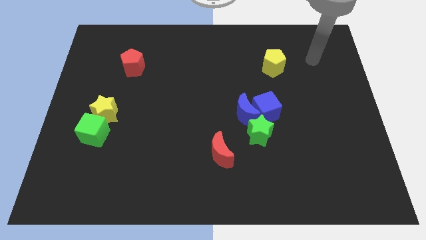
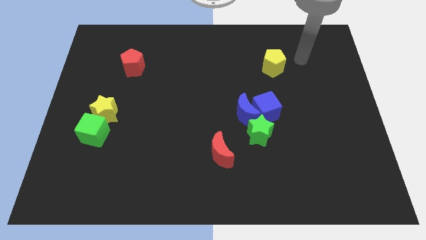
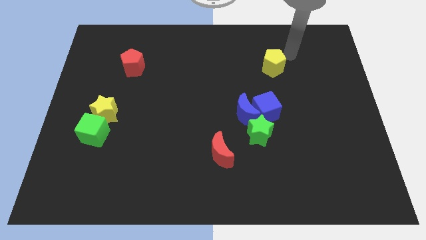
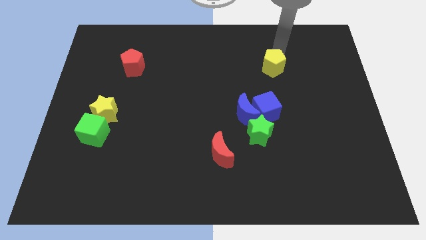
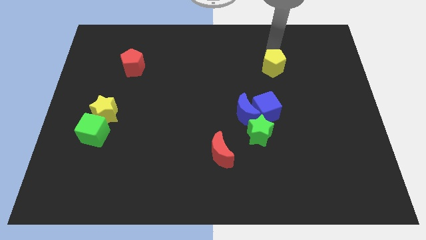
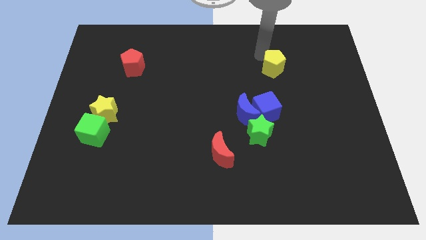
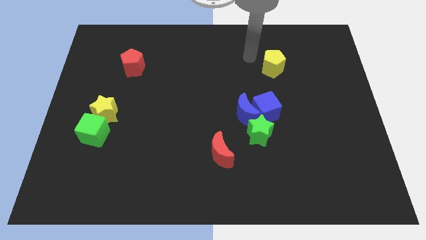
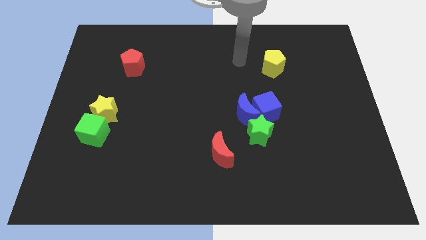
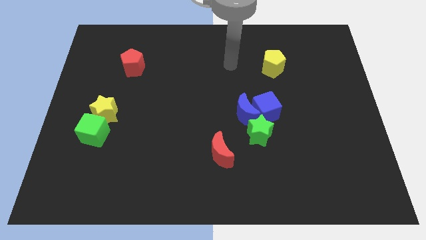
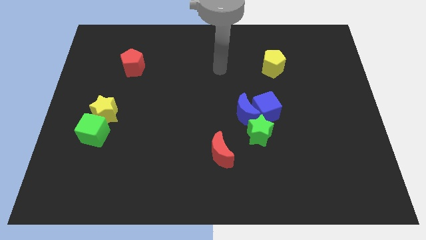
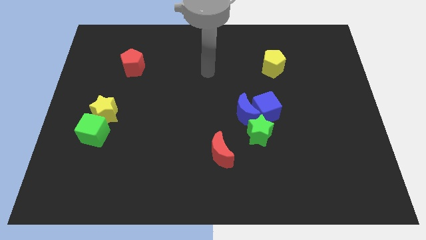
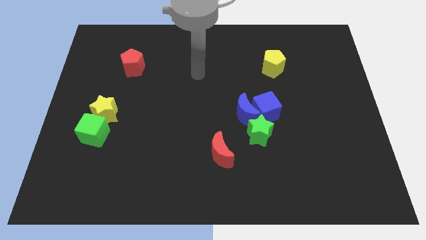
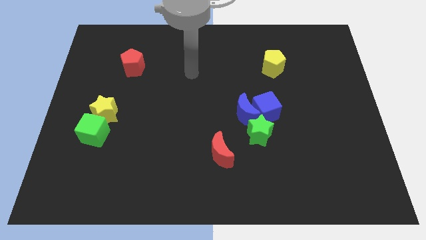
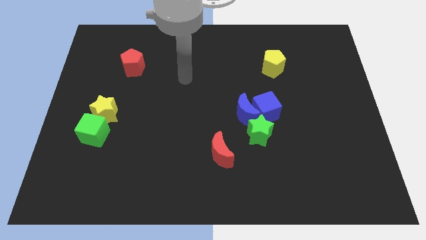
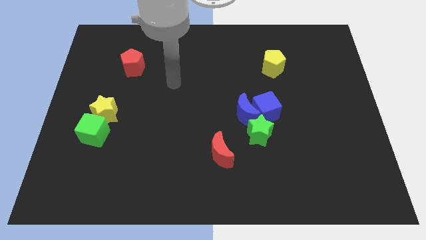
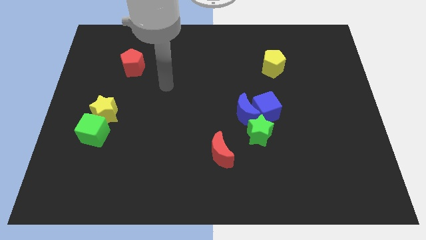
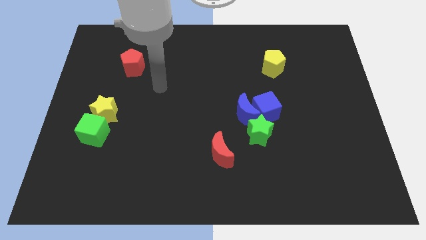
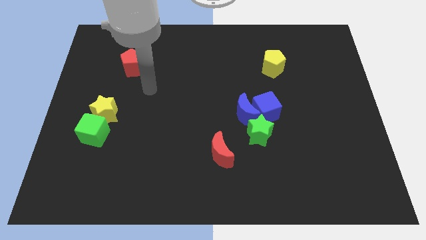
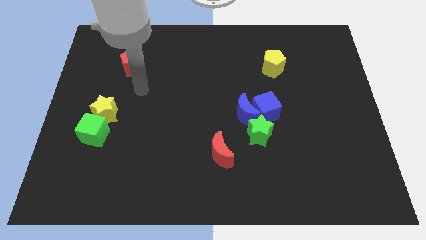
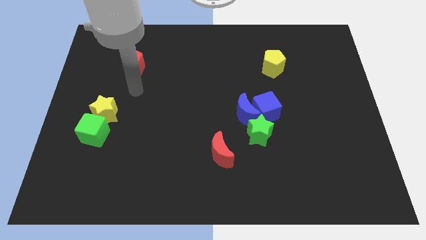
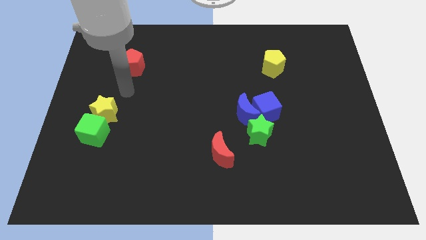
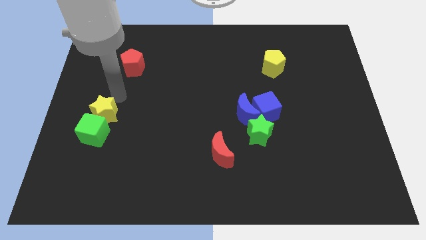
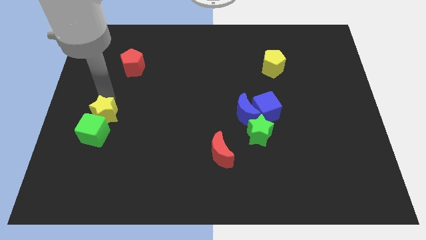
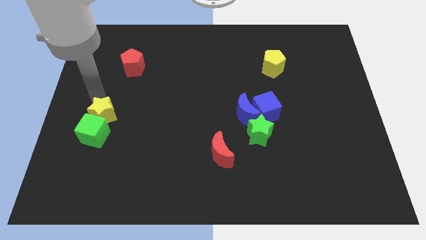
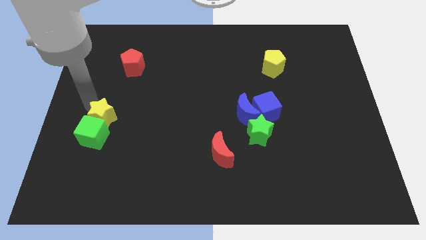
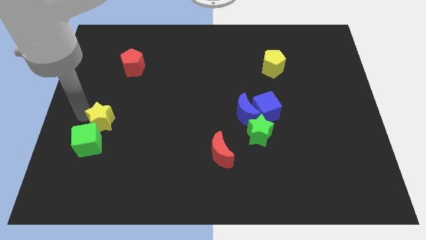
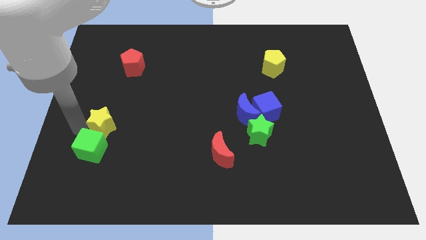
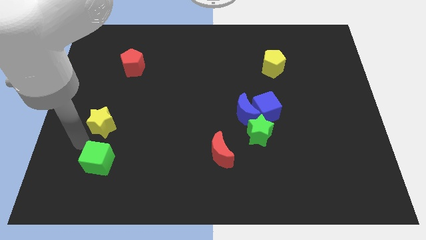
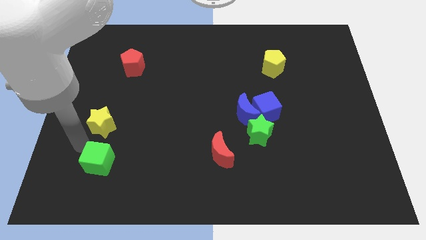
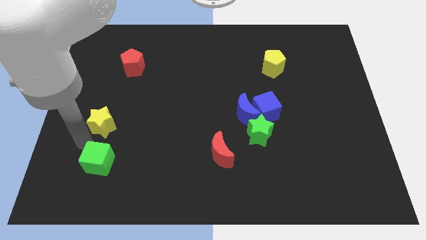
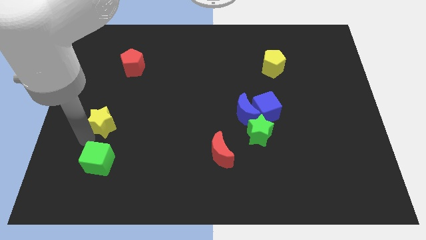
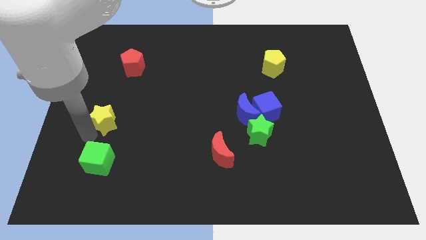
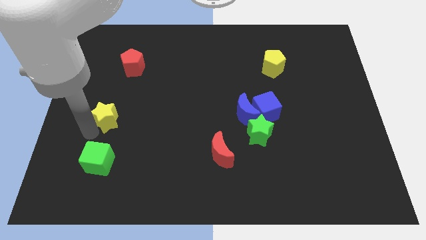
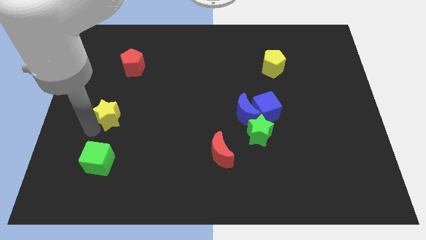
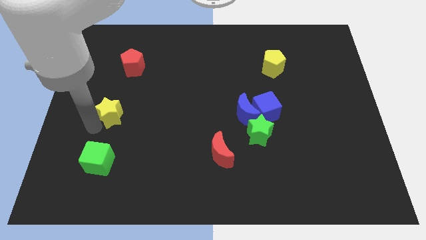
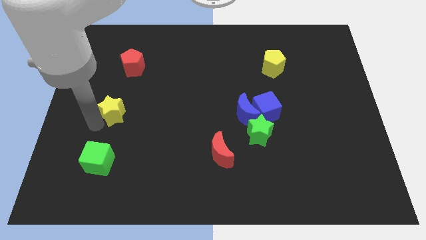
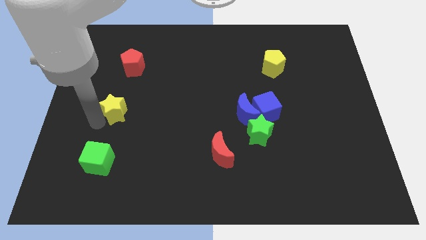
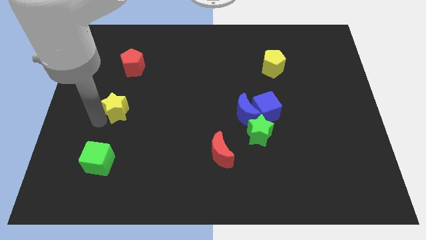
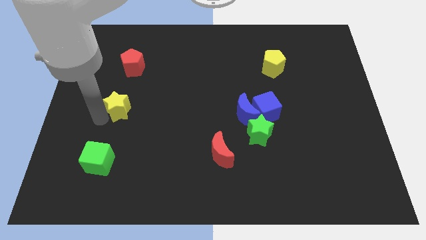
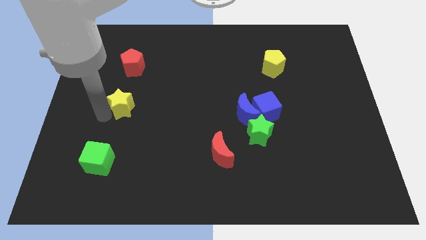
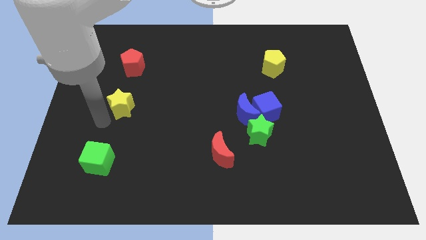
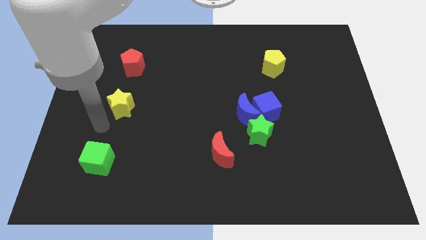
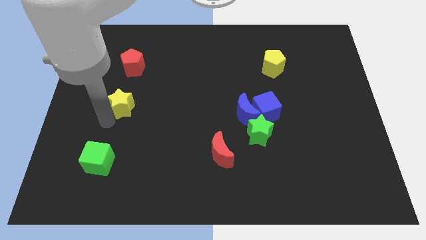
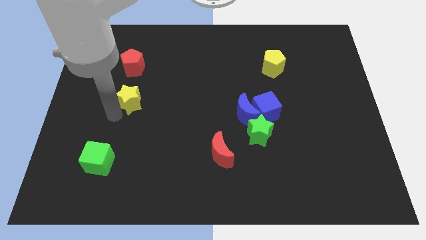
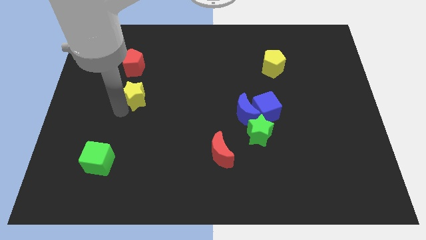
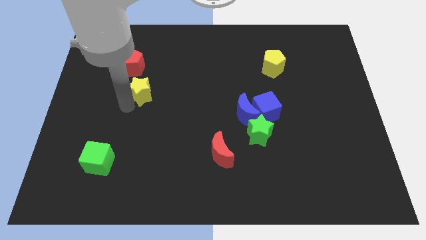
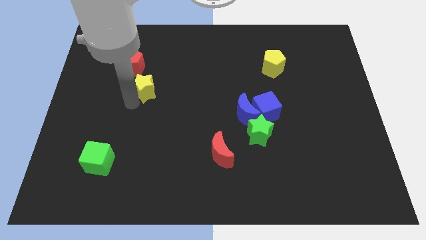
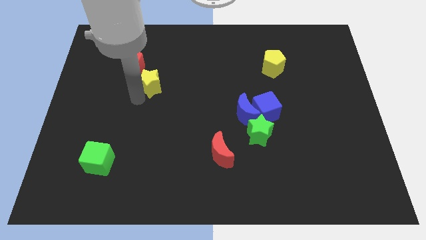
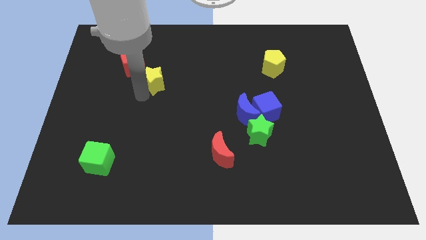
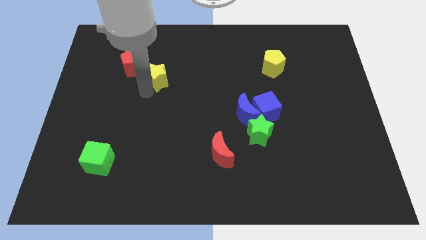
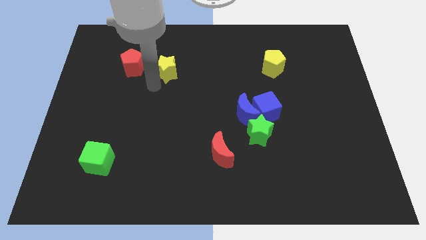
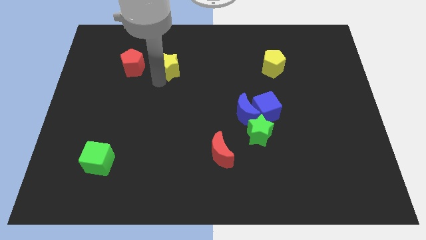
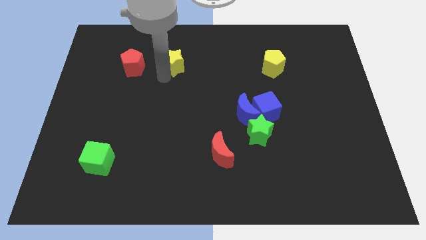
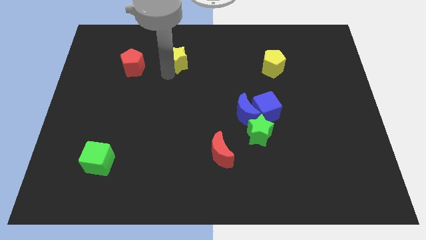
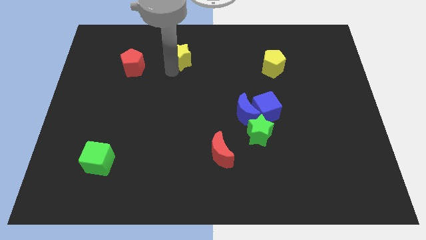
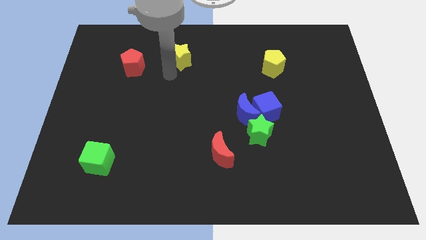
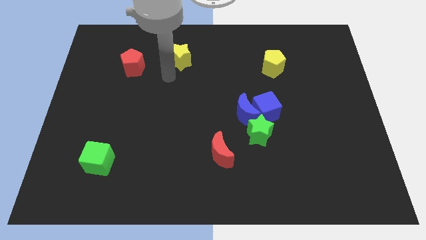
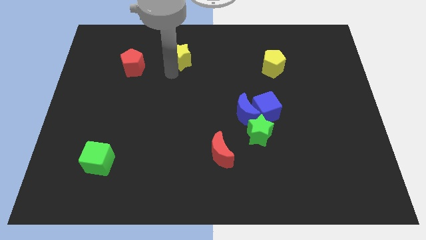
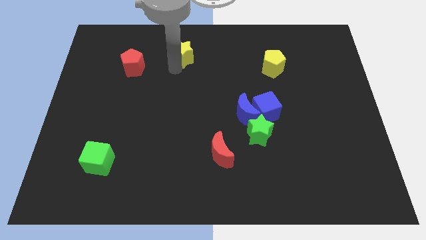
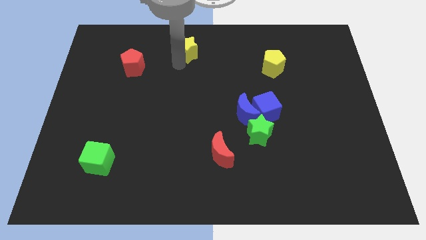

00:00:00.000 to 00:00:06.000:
put the yellow star to the top

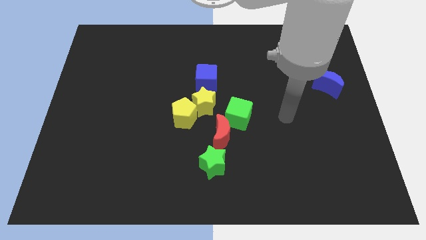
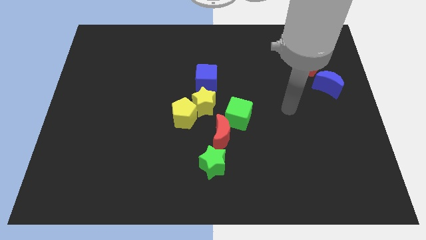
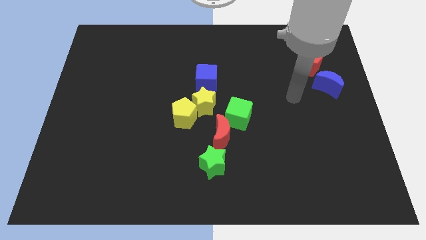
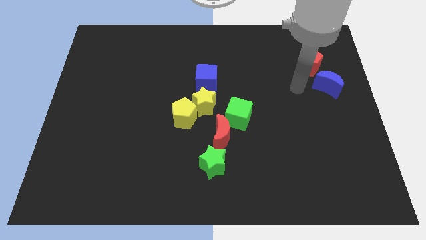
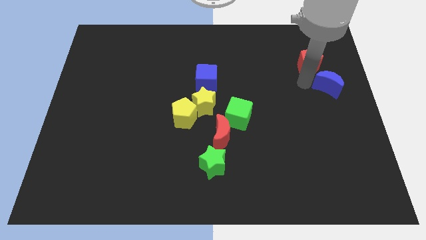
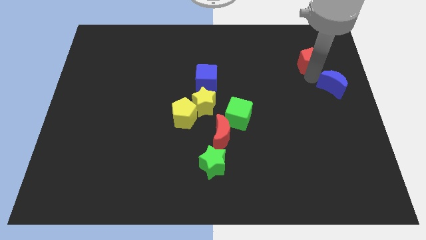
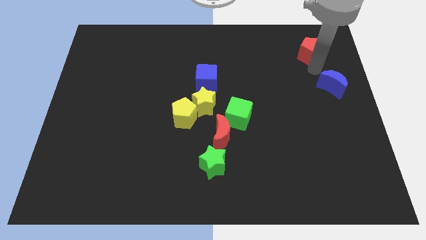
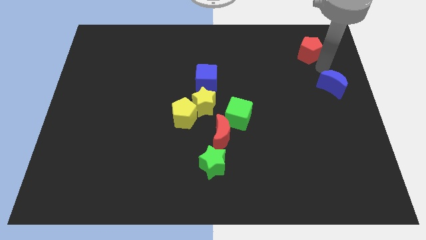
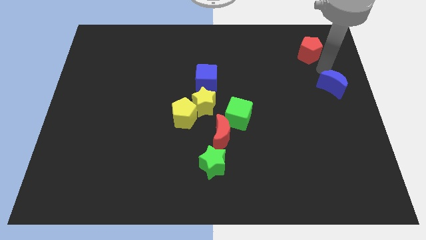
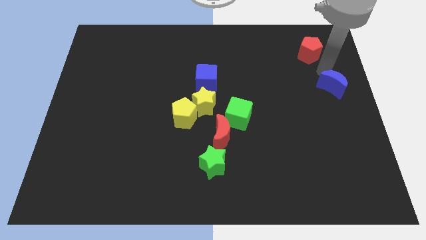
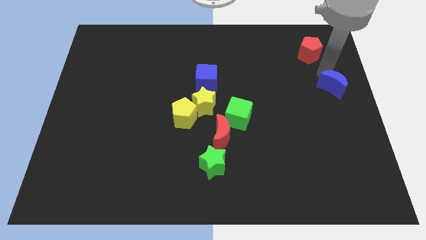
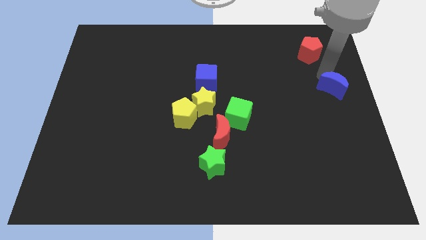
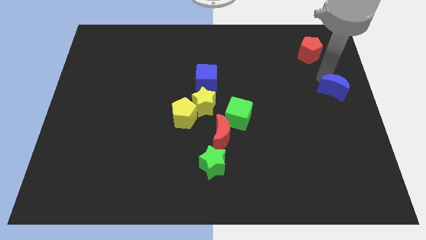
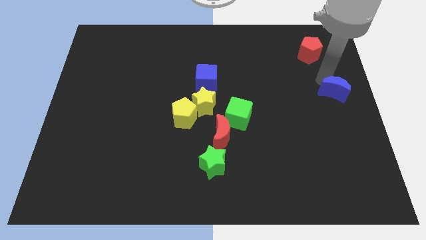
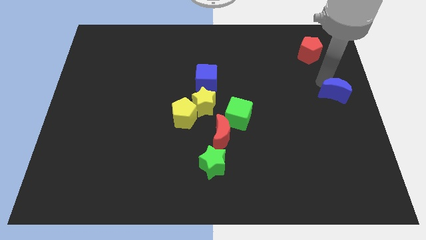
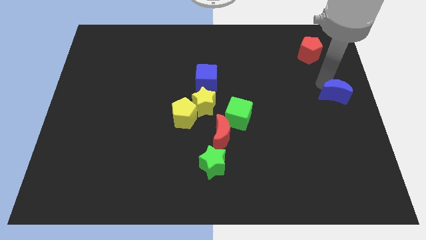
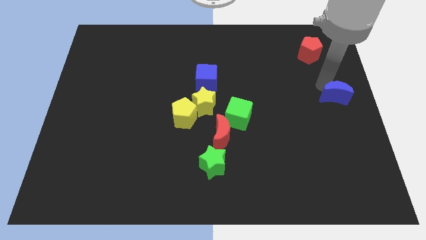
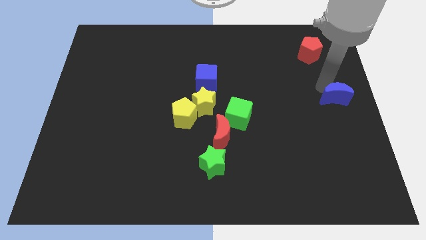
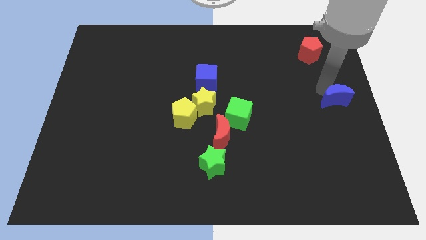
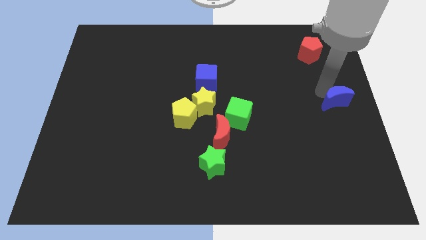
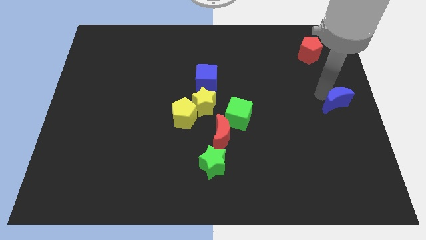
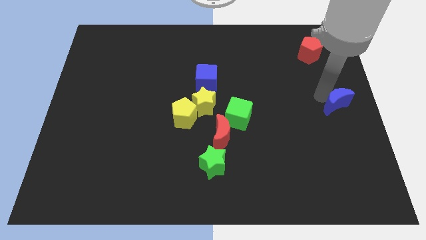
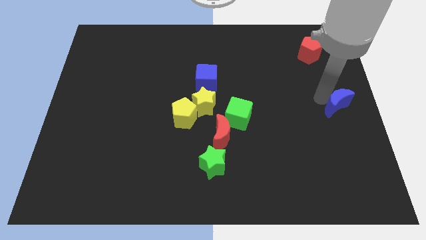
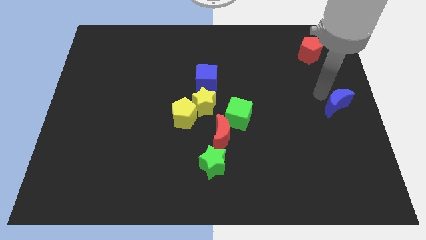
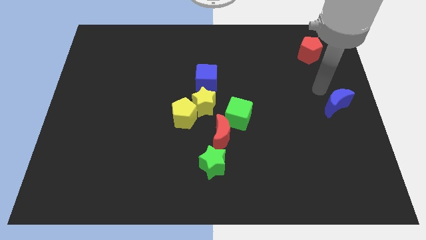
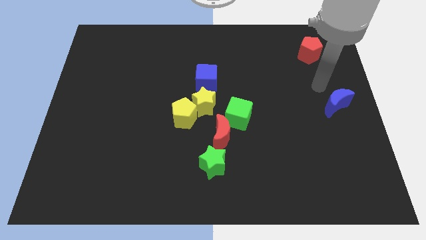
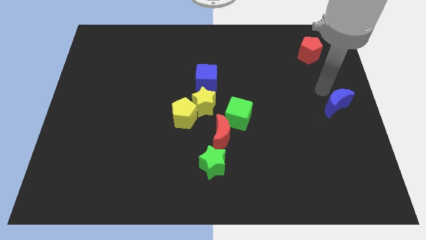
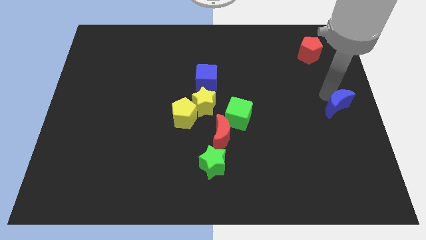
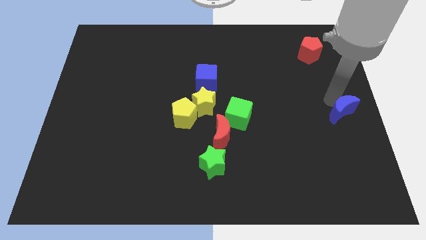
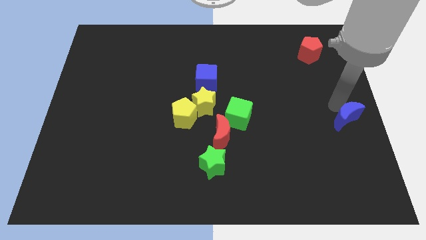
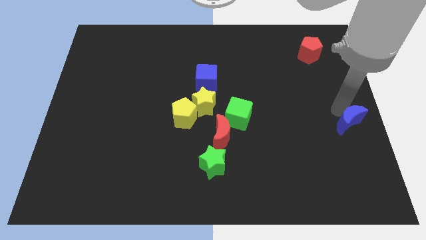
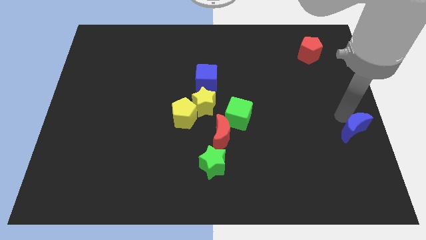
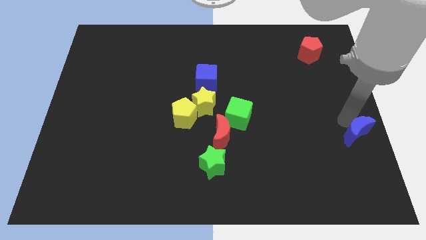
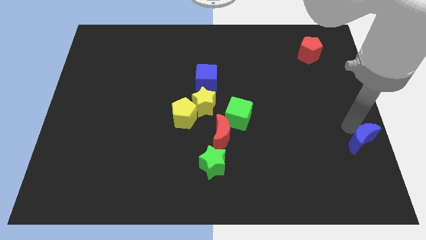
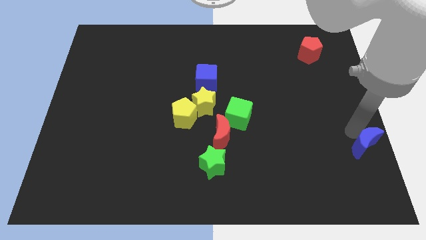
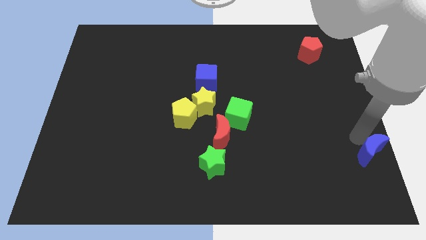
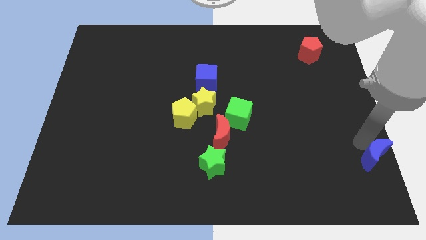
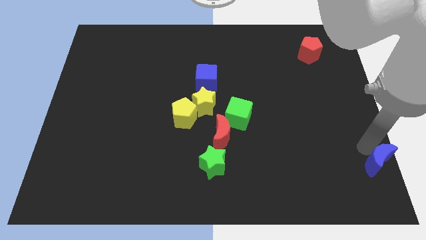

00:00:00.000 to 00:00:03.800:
move the blue moon to the bottom right of the board
